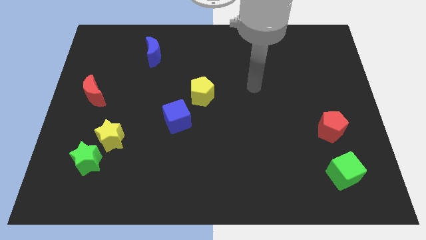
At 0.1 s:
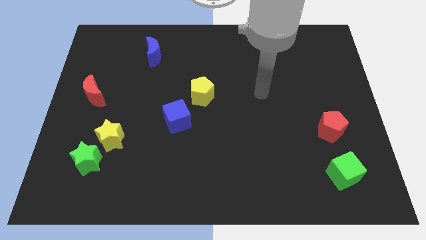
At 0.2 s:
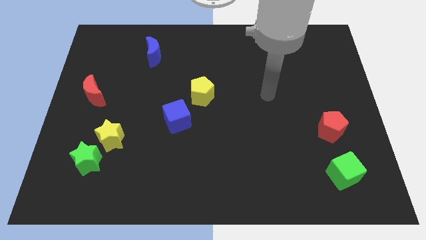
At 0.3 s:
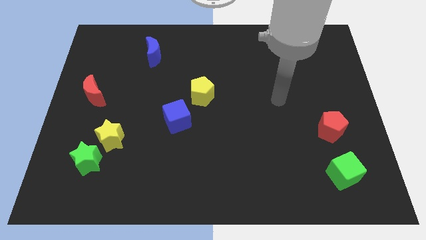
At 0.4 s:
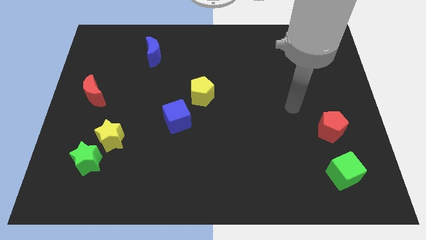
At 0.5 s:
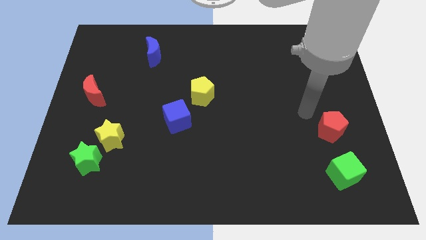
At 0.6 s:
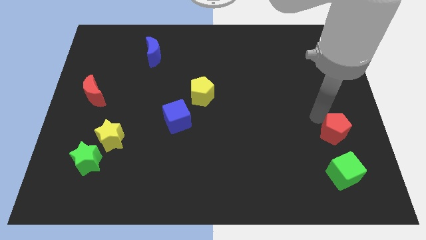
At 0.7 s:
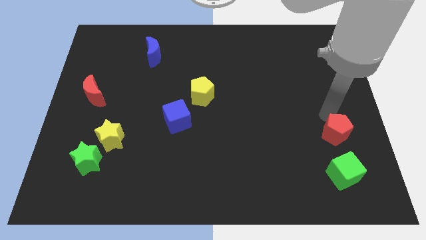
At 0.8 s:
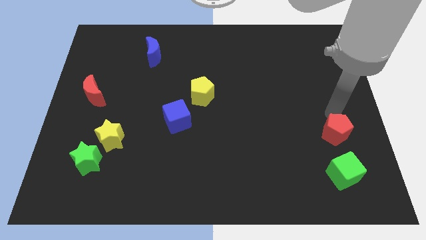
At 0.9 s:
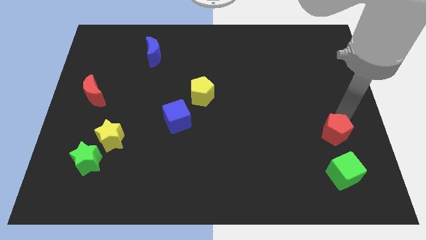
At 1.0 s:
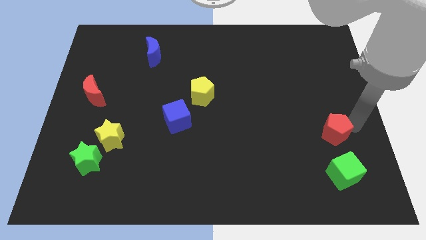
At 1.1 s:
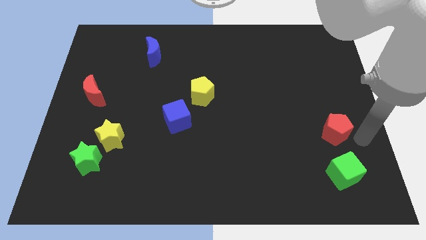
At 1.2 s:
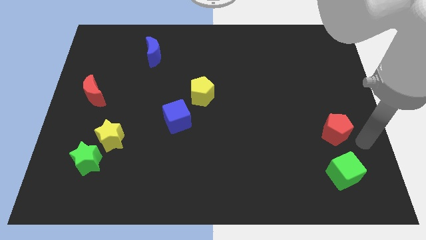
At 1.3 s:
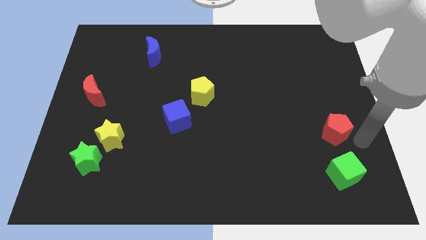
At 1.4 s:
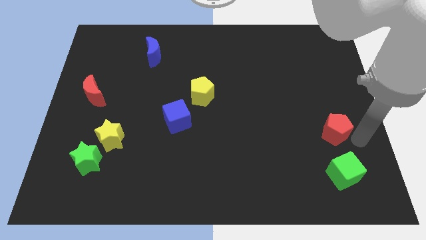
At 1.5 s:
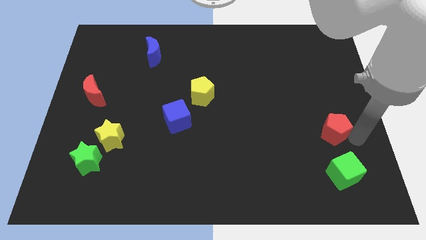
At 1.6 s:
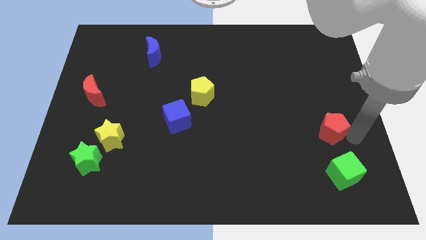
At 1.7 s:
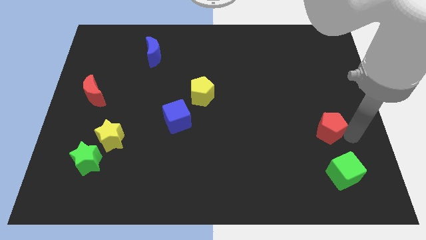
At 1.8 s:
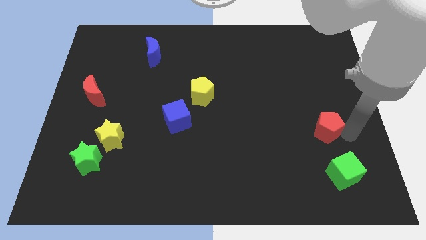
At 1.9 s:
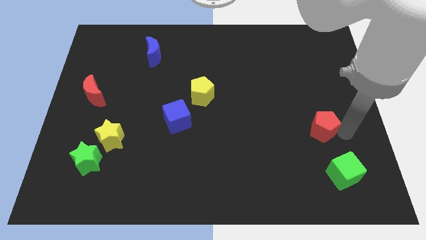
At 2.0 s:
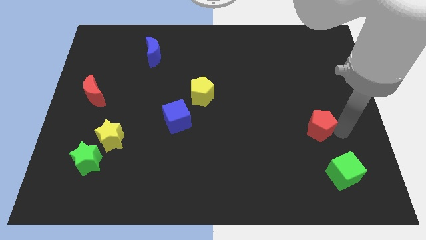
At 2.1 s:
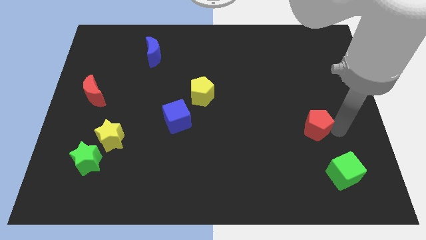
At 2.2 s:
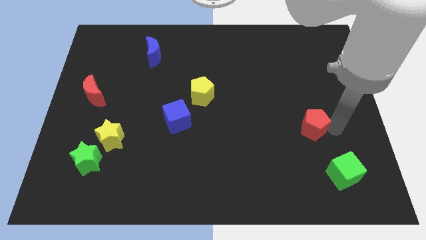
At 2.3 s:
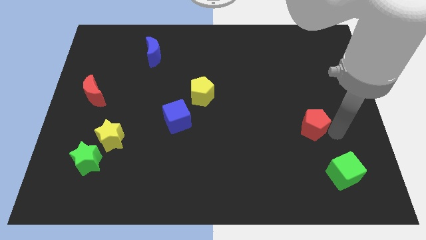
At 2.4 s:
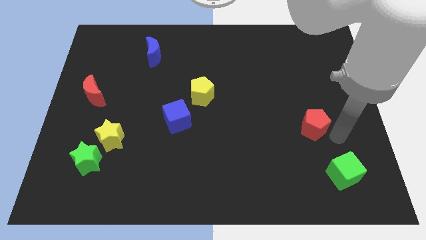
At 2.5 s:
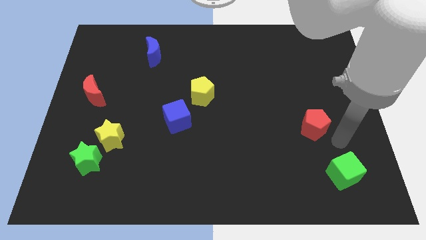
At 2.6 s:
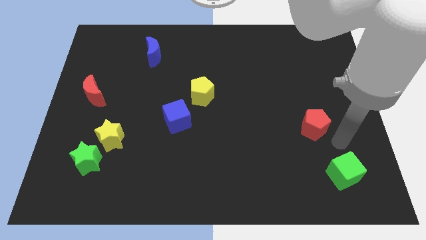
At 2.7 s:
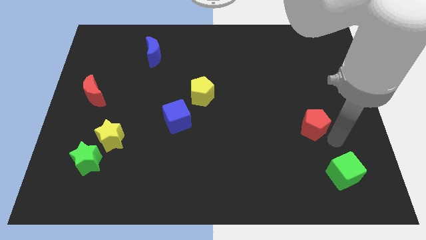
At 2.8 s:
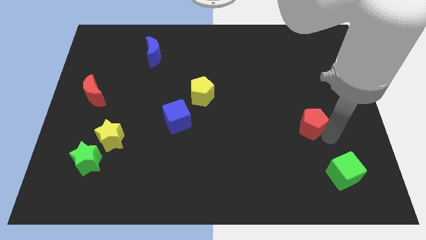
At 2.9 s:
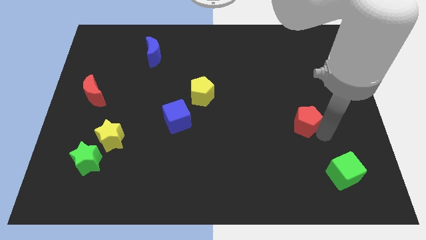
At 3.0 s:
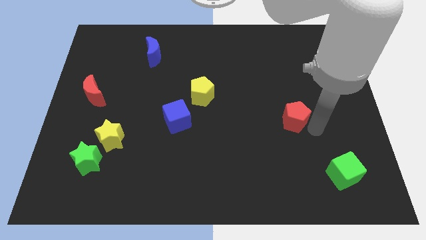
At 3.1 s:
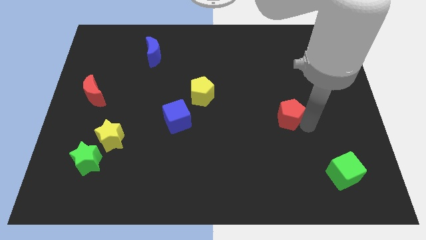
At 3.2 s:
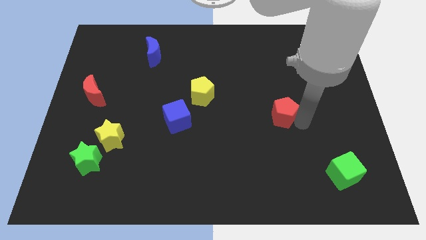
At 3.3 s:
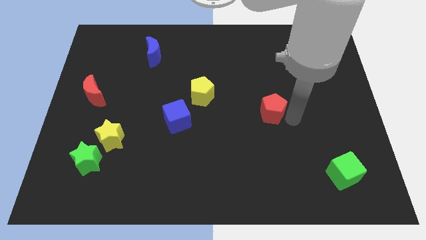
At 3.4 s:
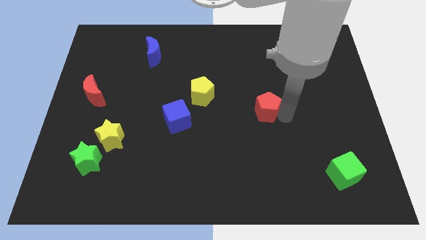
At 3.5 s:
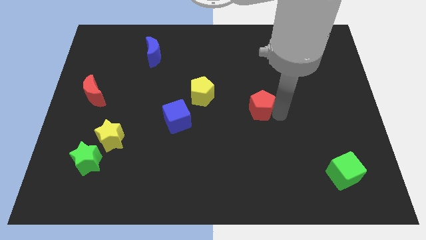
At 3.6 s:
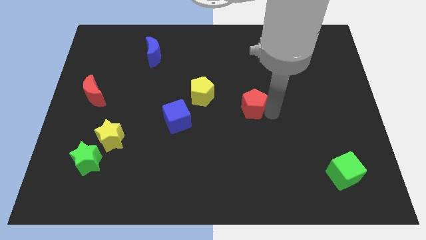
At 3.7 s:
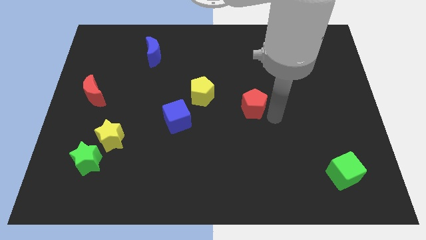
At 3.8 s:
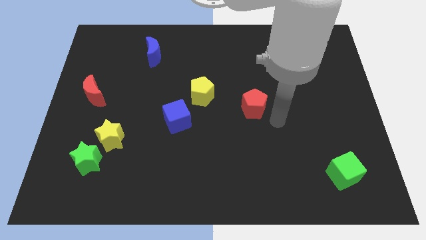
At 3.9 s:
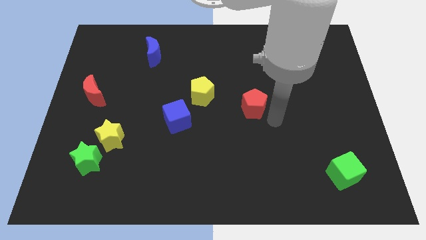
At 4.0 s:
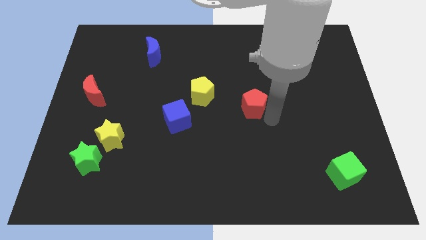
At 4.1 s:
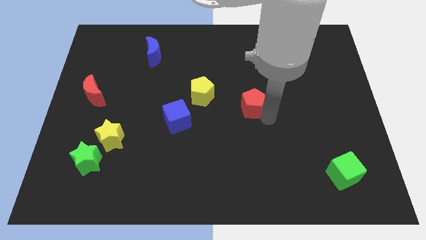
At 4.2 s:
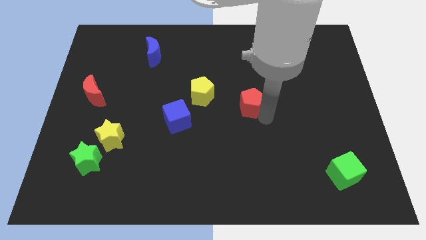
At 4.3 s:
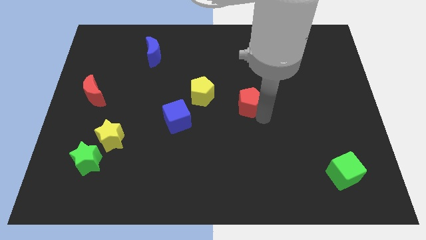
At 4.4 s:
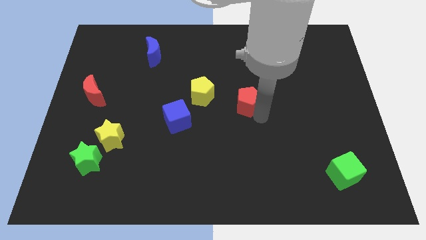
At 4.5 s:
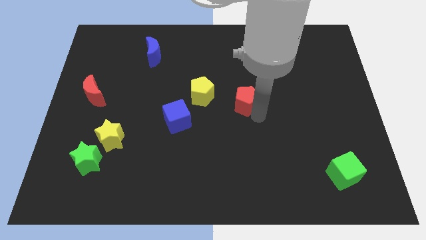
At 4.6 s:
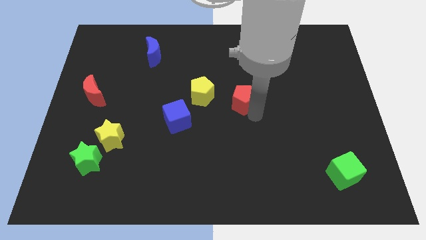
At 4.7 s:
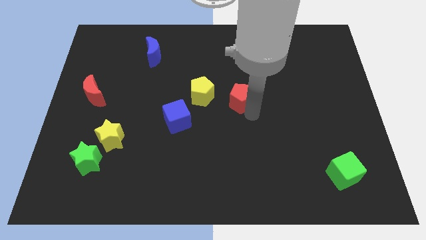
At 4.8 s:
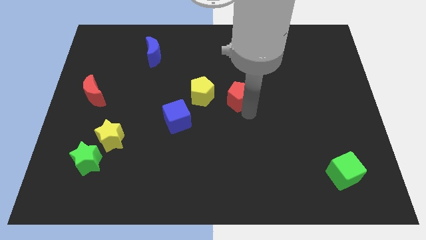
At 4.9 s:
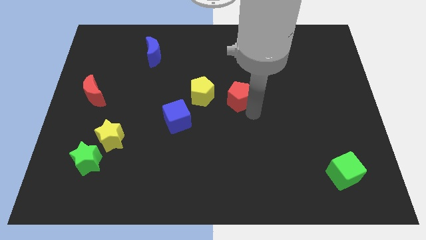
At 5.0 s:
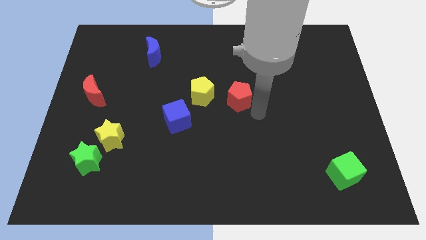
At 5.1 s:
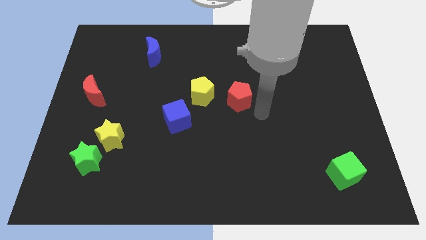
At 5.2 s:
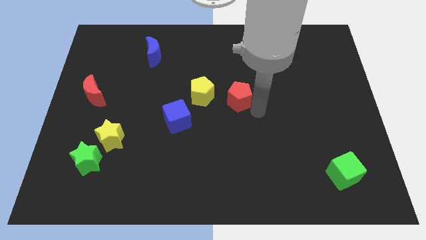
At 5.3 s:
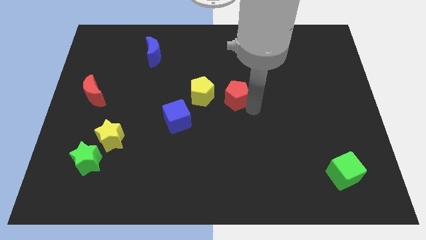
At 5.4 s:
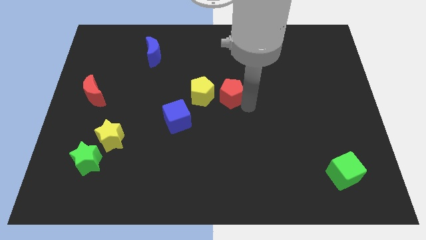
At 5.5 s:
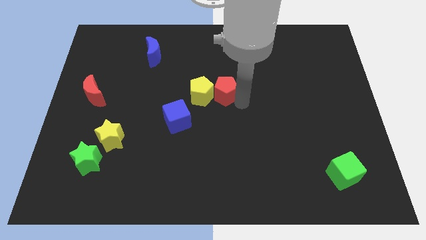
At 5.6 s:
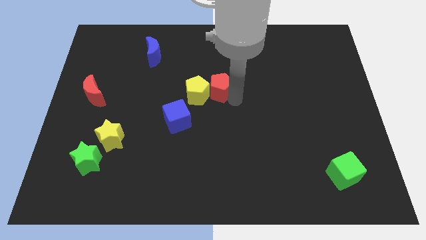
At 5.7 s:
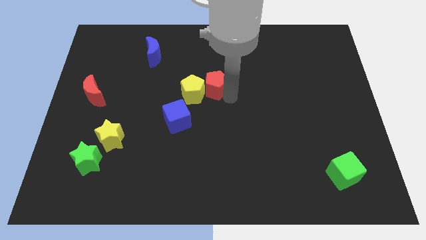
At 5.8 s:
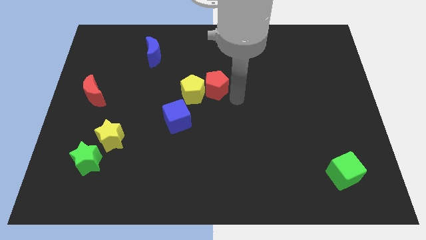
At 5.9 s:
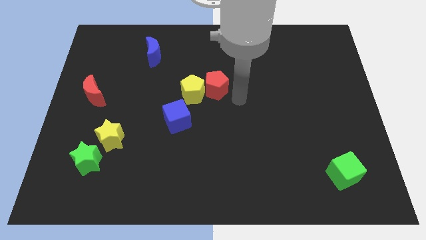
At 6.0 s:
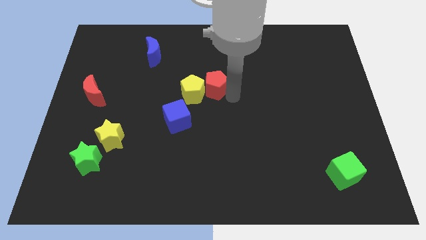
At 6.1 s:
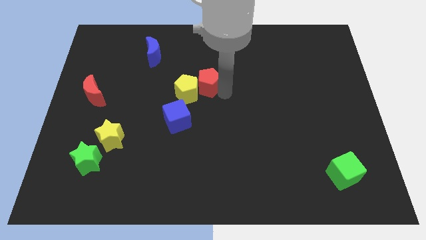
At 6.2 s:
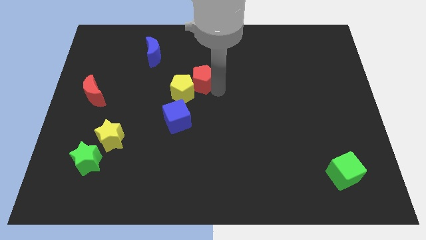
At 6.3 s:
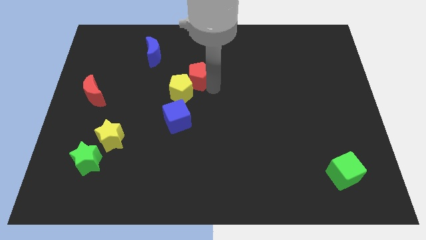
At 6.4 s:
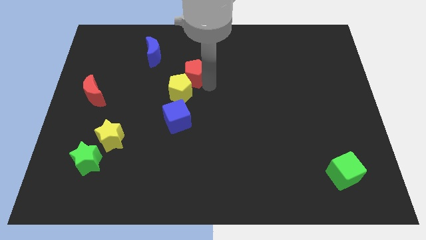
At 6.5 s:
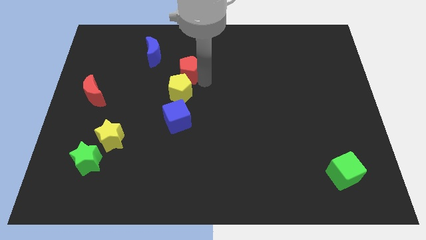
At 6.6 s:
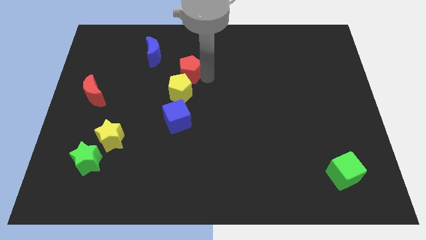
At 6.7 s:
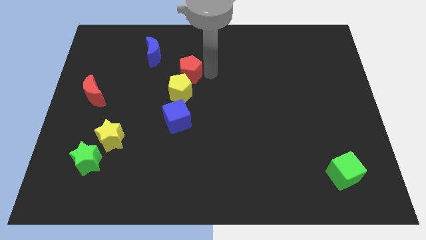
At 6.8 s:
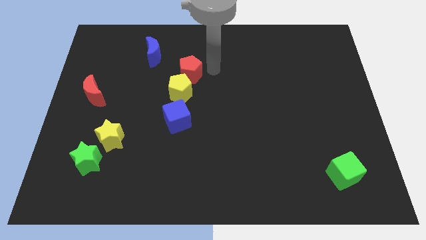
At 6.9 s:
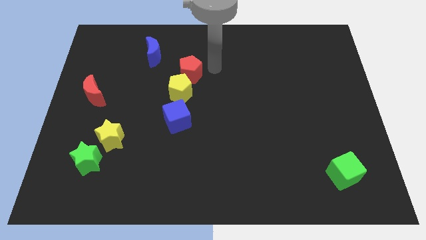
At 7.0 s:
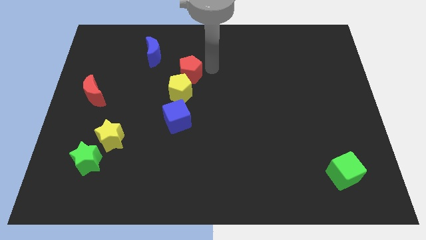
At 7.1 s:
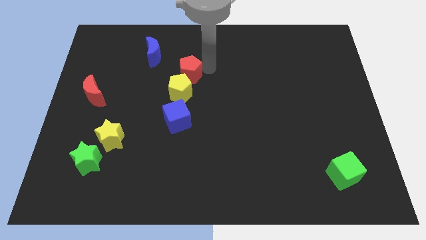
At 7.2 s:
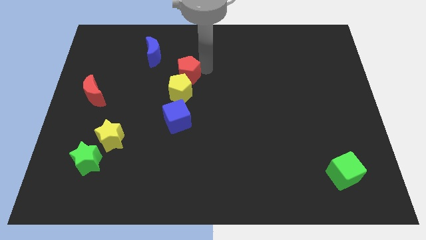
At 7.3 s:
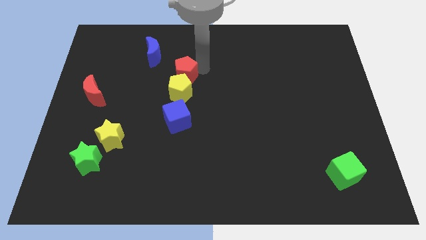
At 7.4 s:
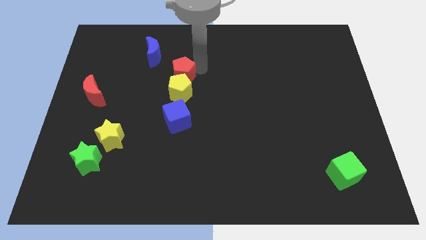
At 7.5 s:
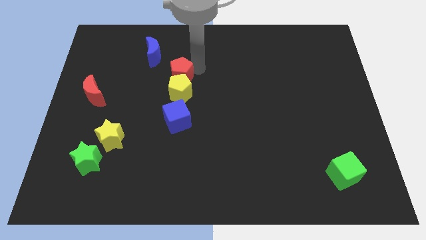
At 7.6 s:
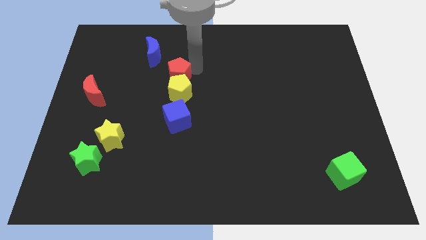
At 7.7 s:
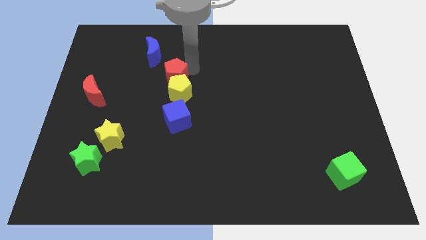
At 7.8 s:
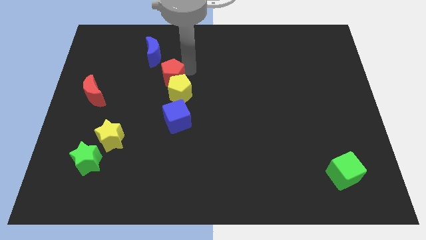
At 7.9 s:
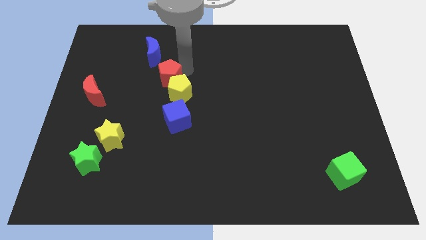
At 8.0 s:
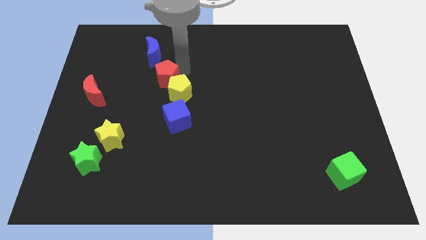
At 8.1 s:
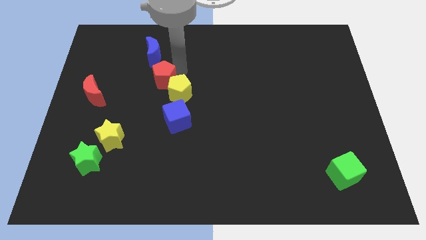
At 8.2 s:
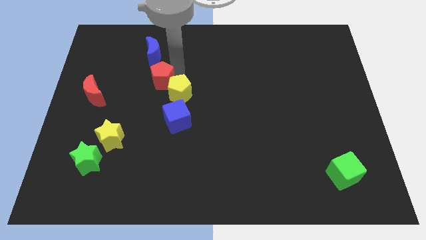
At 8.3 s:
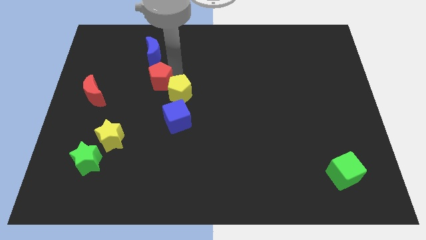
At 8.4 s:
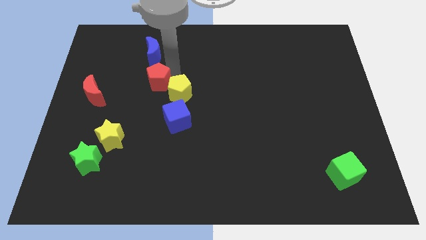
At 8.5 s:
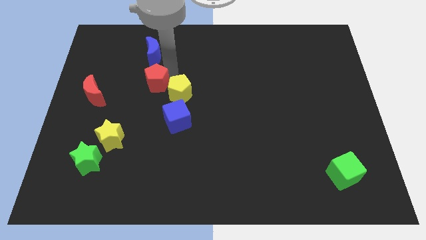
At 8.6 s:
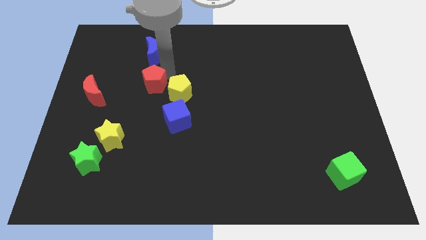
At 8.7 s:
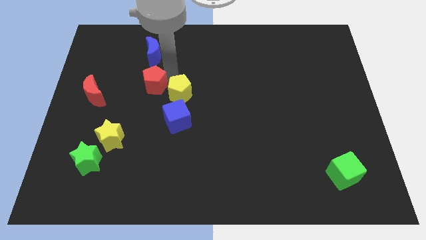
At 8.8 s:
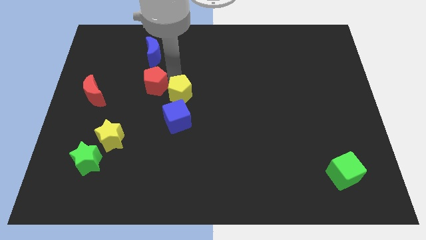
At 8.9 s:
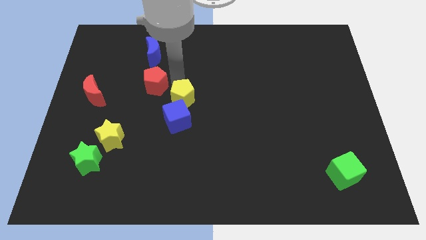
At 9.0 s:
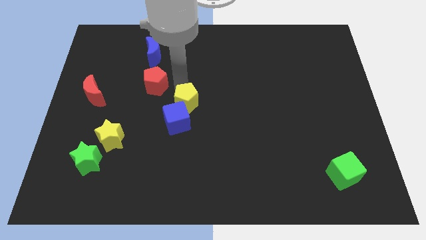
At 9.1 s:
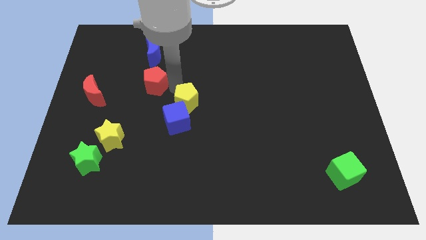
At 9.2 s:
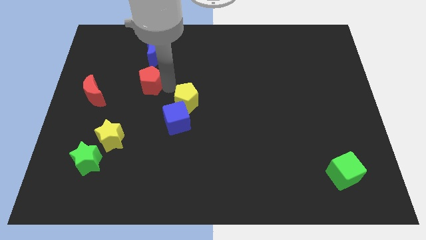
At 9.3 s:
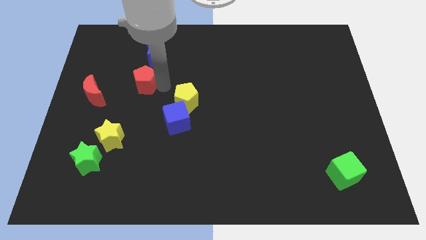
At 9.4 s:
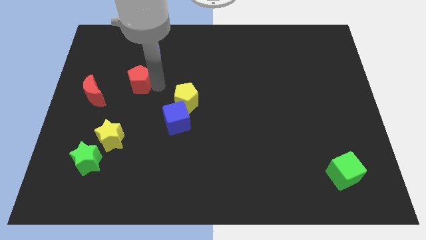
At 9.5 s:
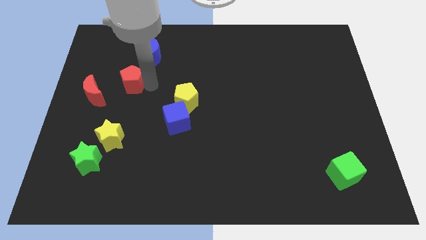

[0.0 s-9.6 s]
push the red pentagon to the top right side of the red moon
